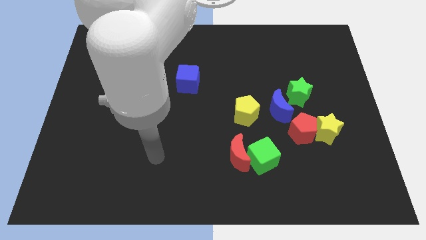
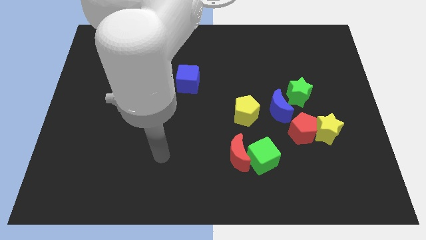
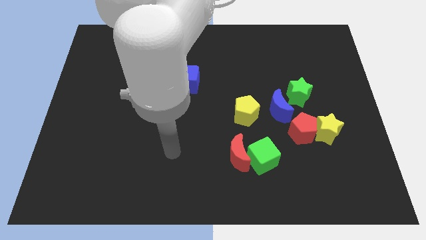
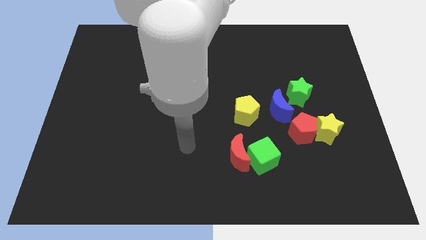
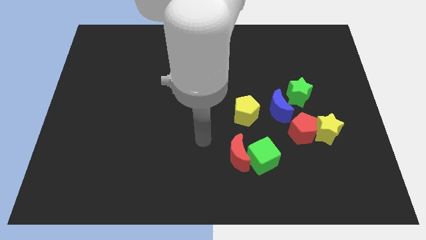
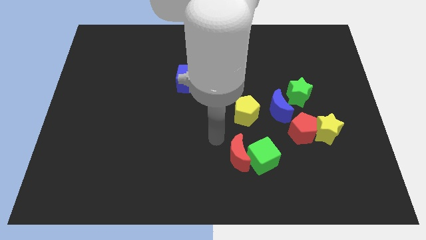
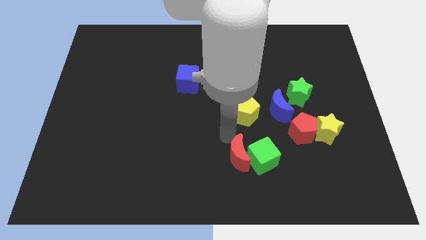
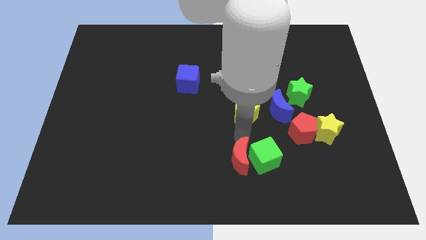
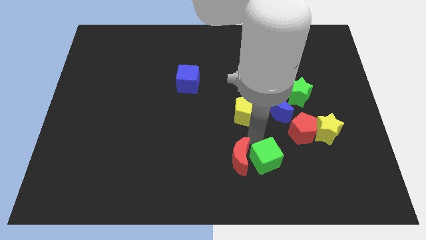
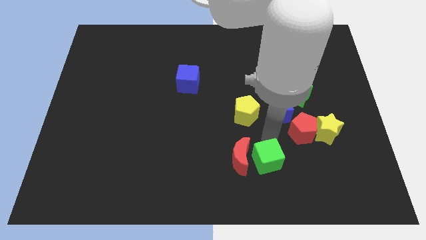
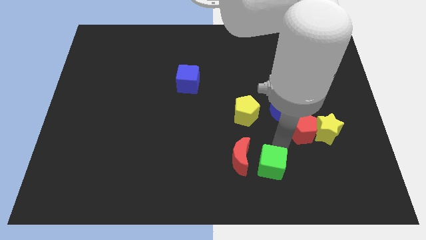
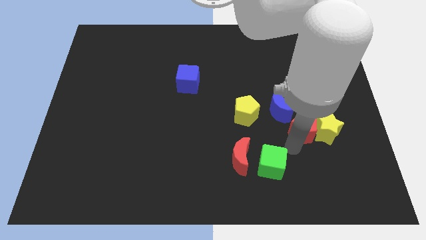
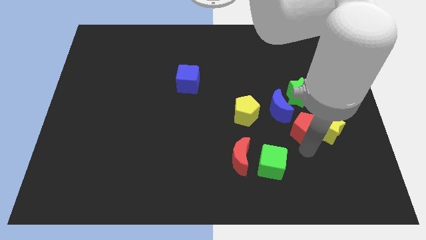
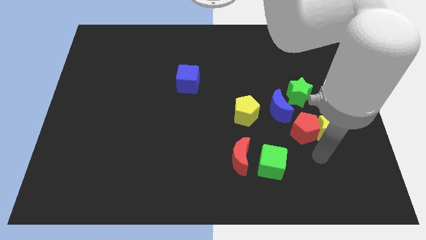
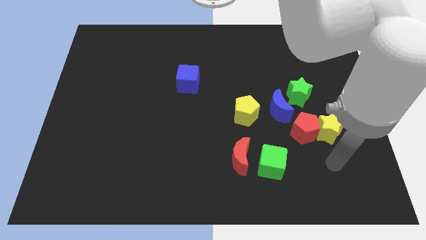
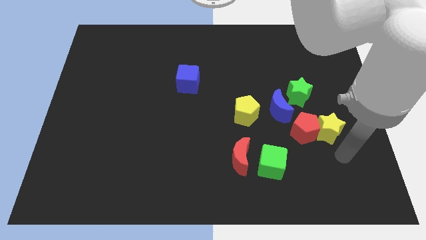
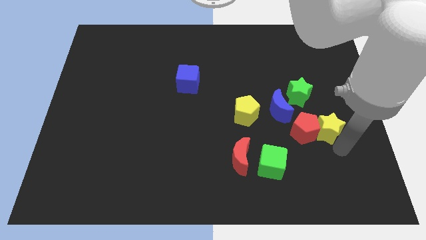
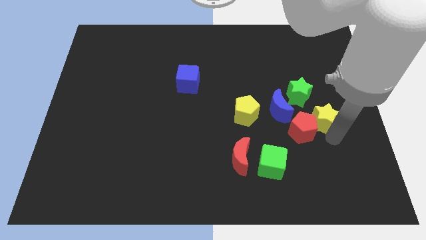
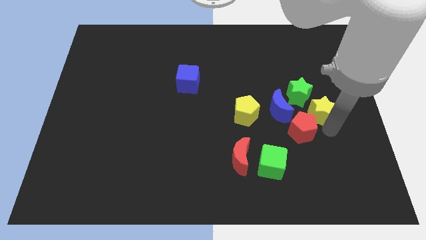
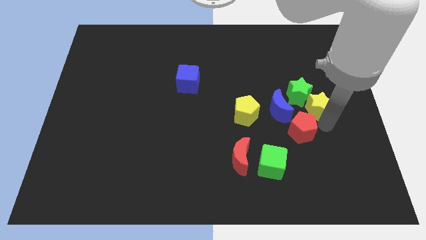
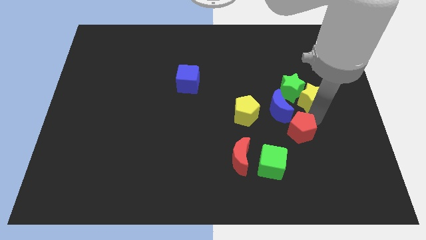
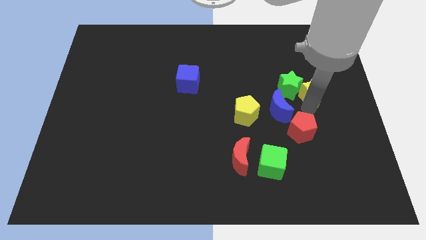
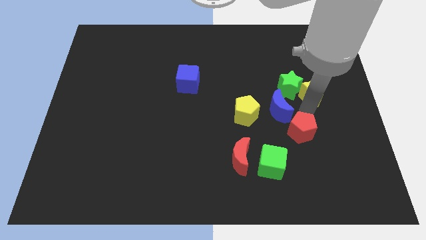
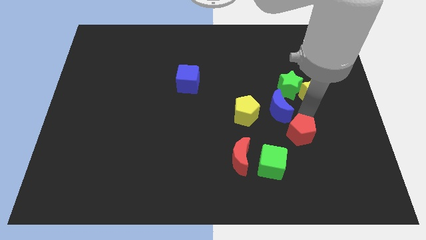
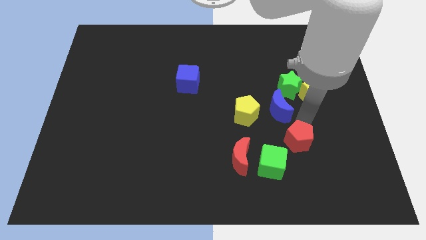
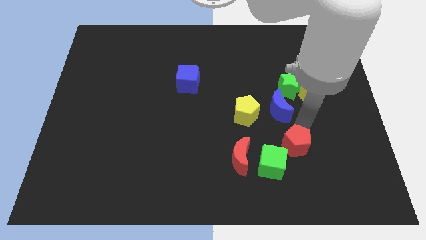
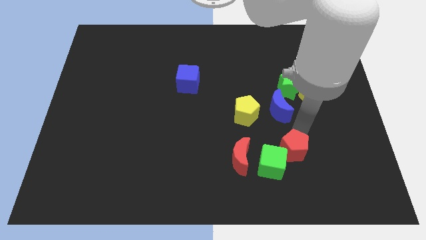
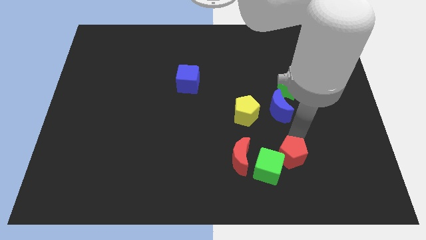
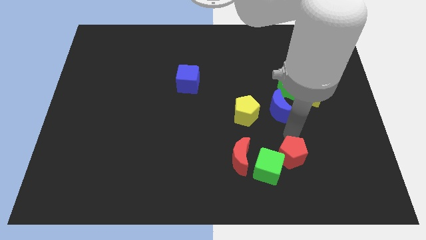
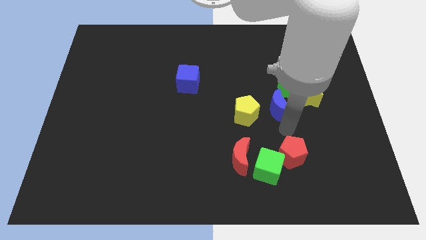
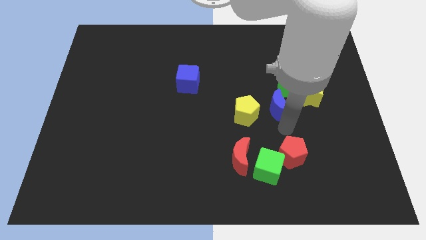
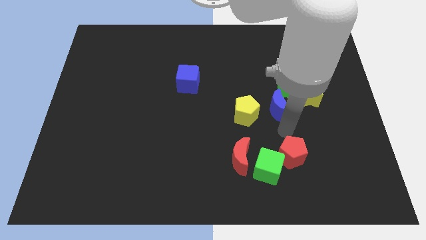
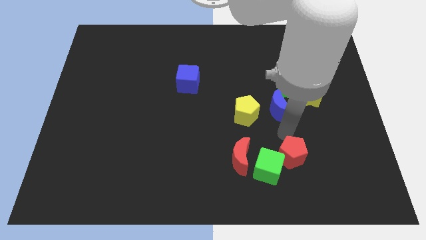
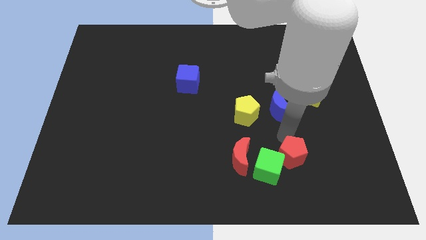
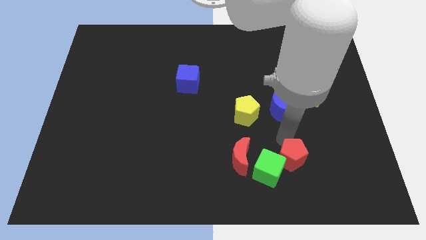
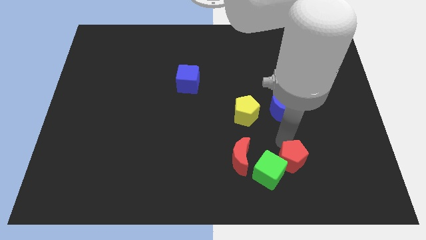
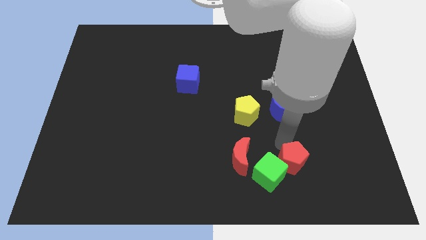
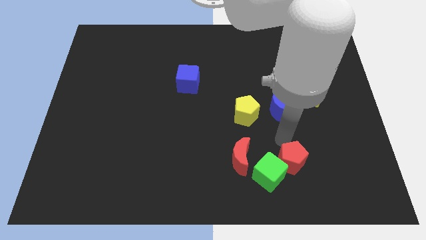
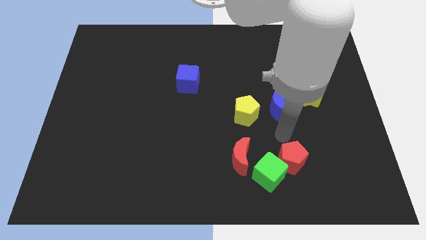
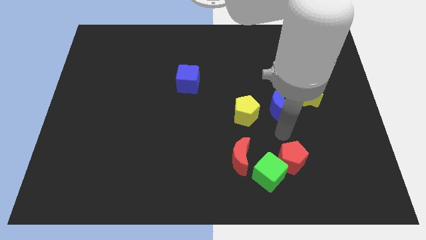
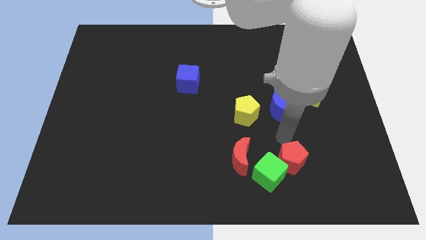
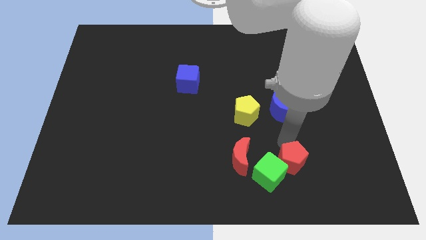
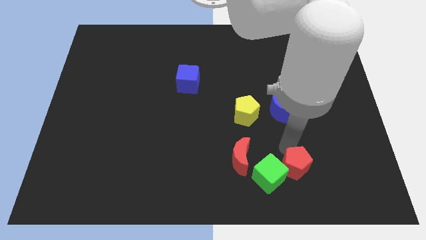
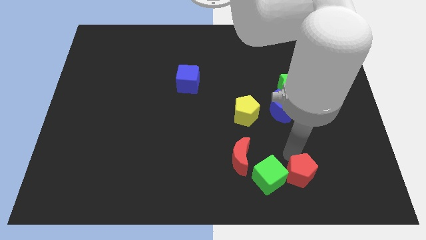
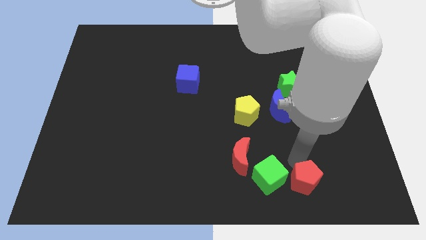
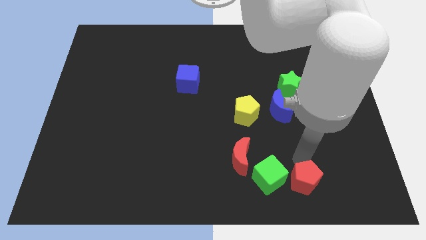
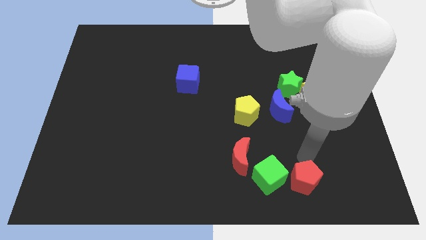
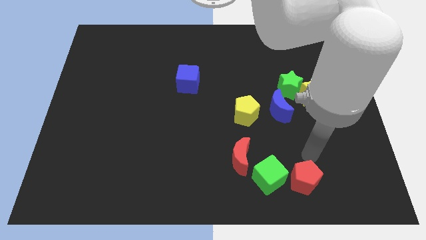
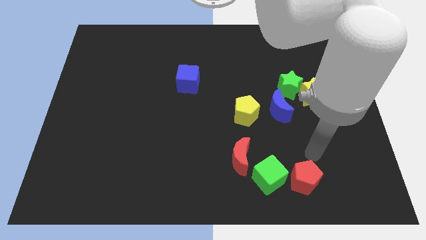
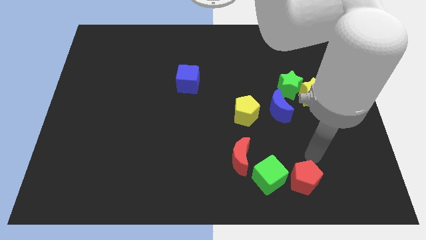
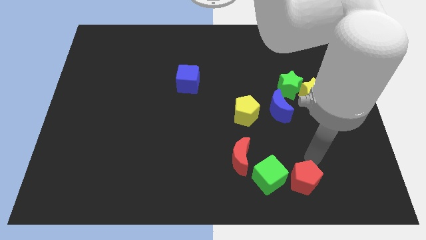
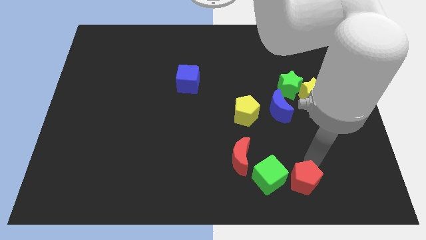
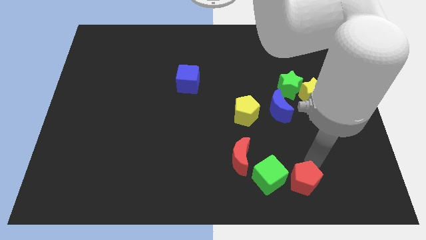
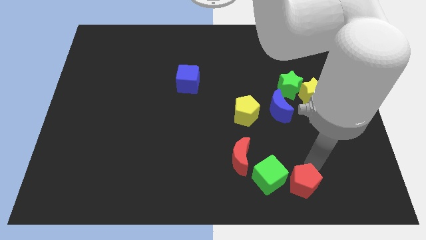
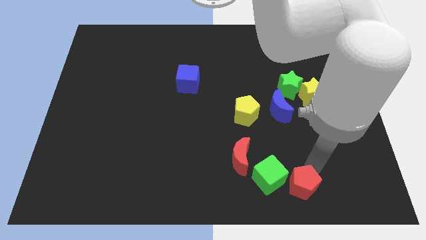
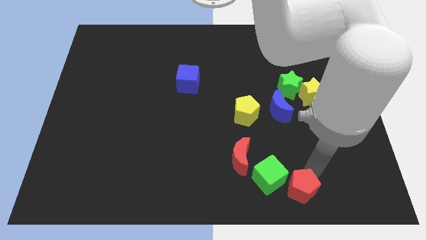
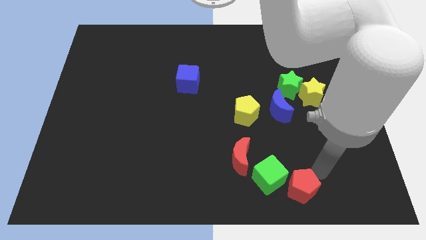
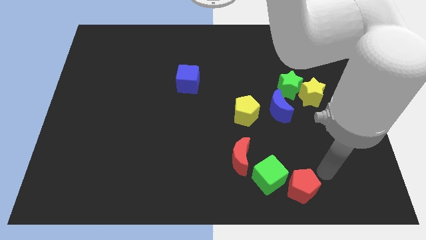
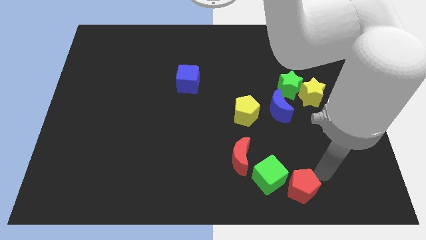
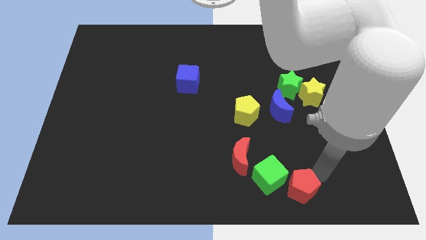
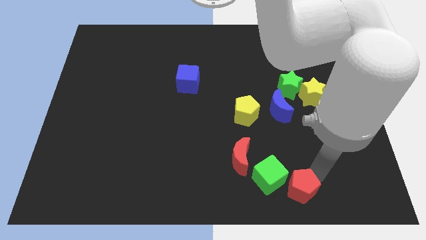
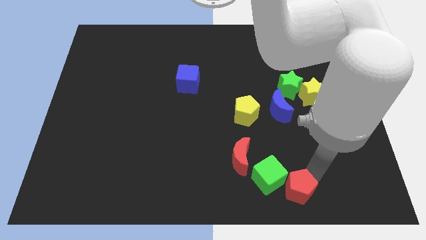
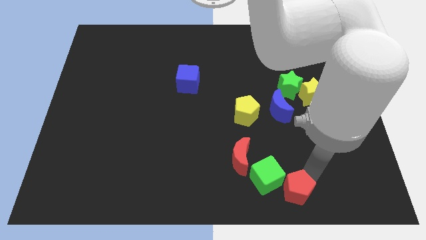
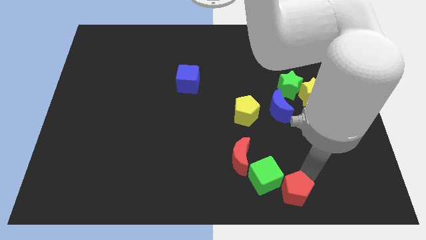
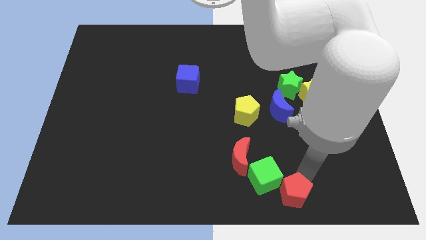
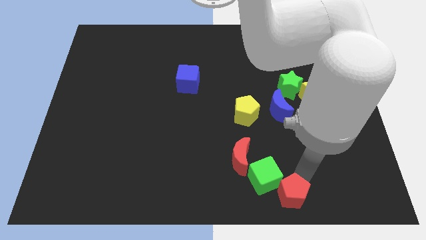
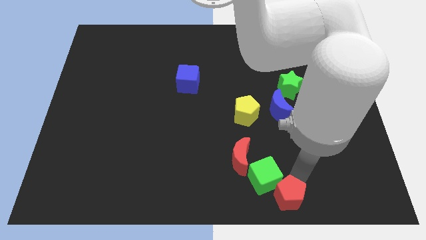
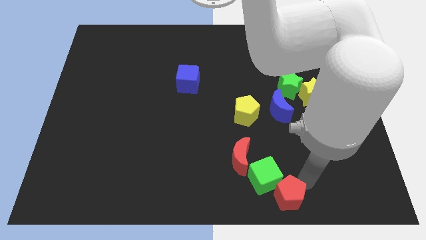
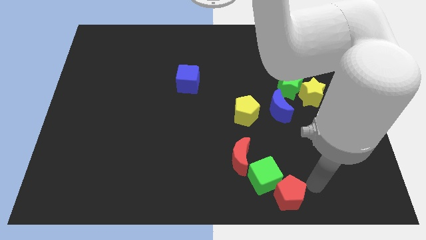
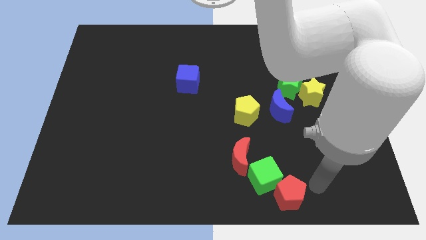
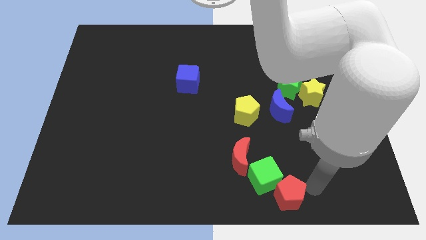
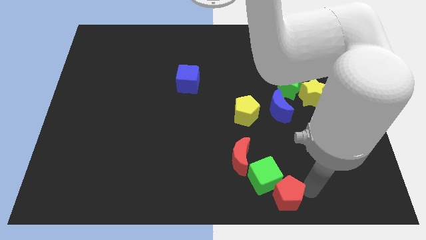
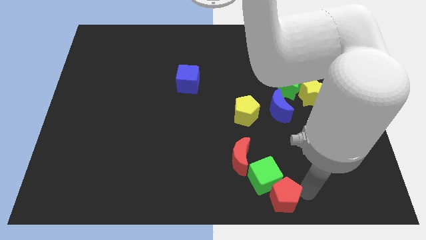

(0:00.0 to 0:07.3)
put the red pentagon to the bottom side
